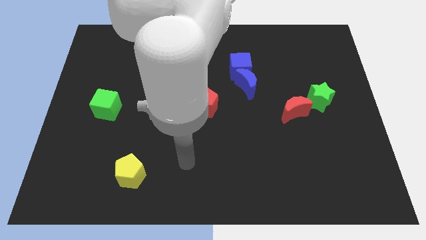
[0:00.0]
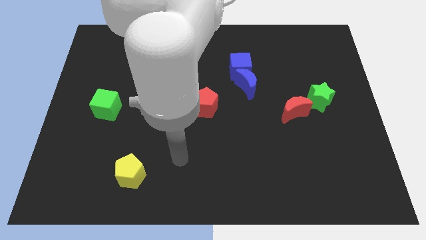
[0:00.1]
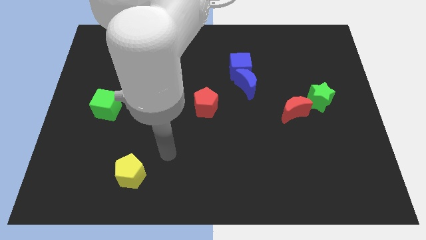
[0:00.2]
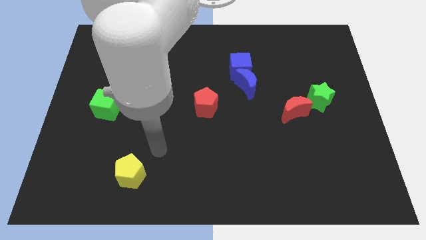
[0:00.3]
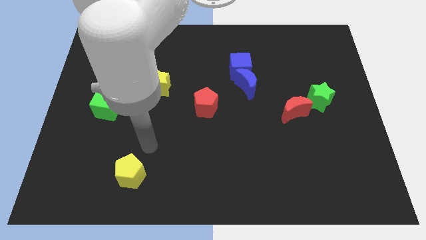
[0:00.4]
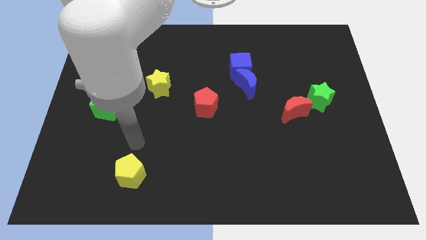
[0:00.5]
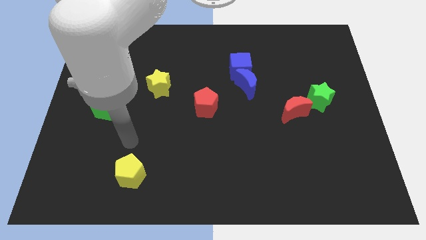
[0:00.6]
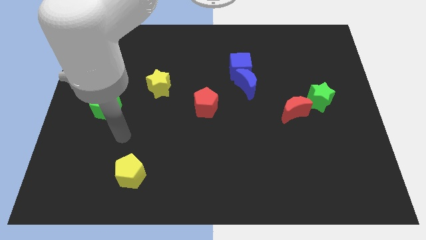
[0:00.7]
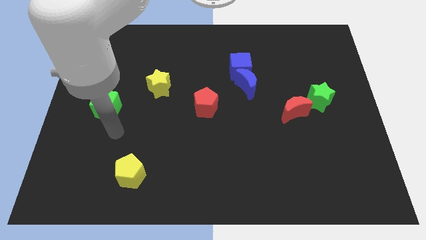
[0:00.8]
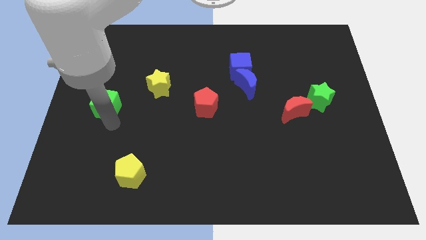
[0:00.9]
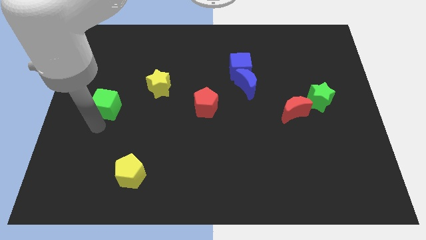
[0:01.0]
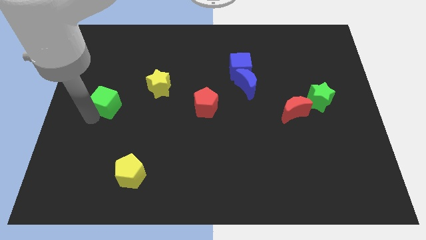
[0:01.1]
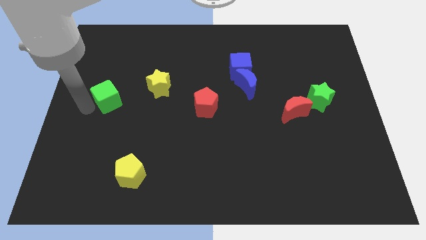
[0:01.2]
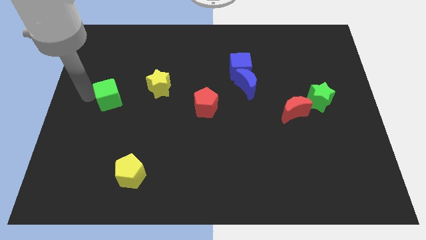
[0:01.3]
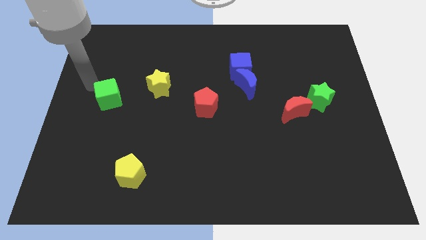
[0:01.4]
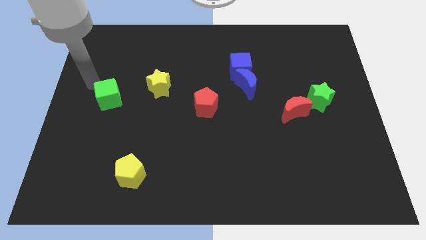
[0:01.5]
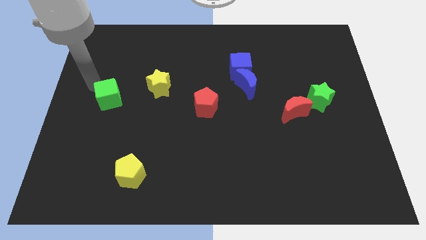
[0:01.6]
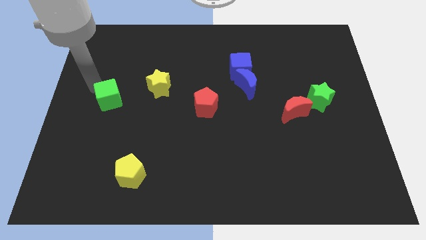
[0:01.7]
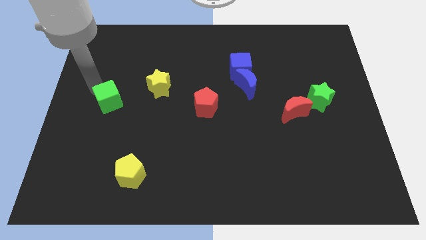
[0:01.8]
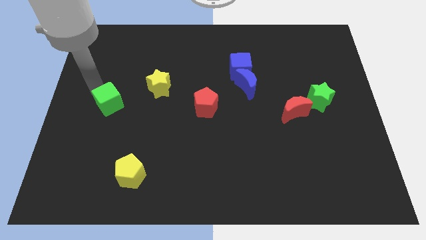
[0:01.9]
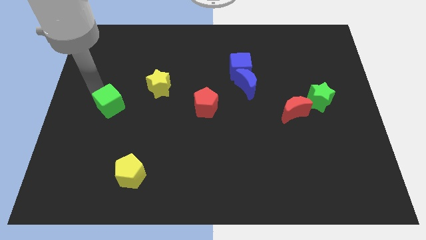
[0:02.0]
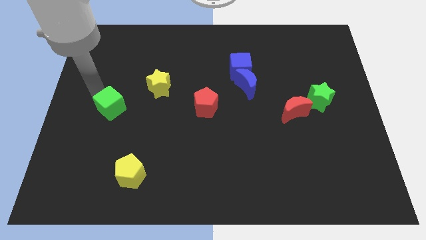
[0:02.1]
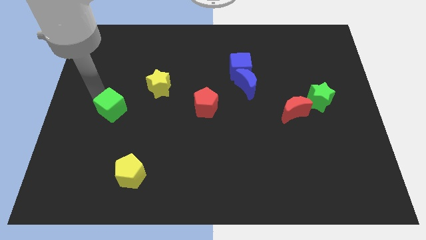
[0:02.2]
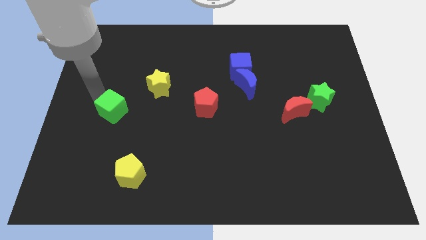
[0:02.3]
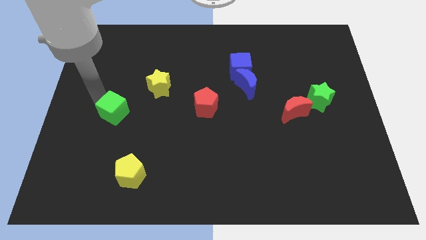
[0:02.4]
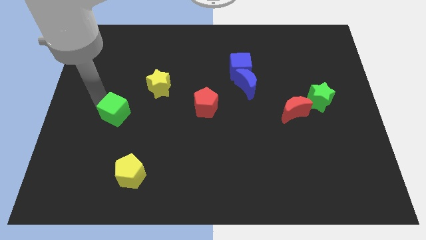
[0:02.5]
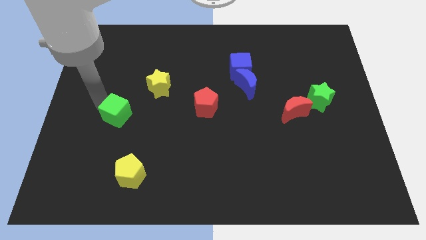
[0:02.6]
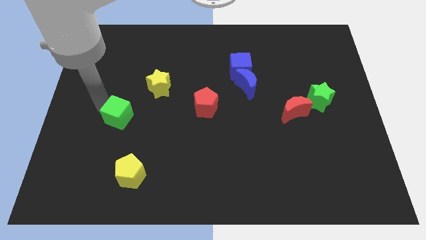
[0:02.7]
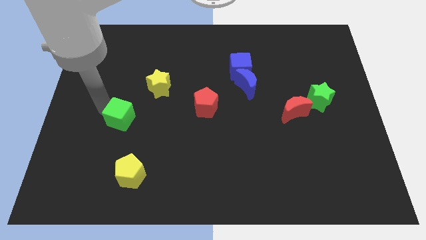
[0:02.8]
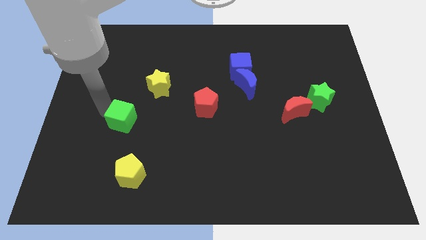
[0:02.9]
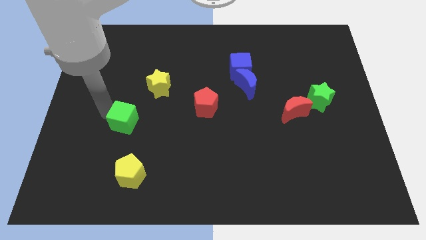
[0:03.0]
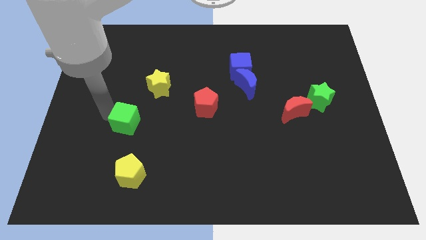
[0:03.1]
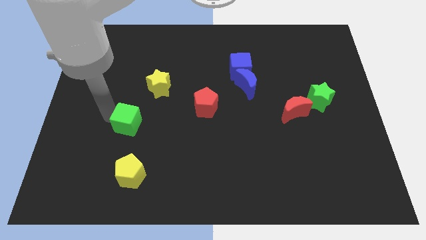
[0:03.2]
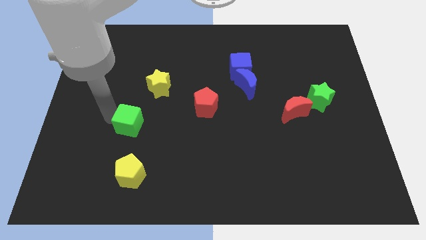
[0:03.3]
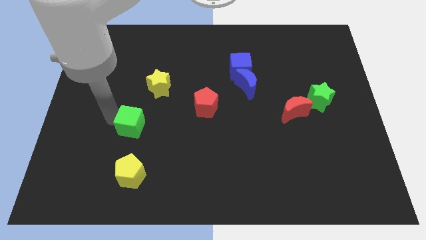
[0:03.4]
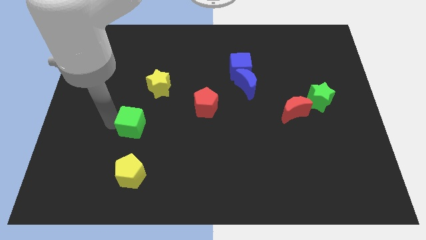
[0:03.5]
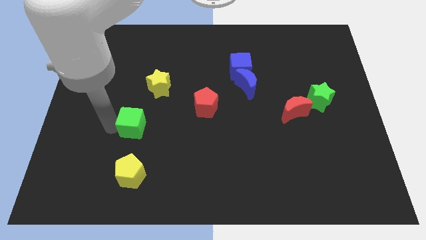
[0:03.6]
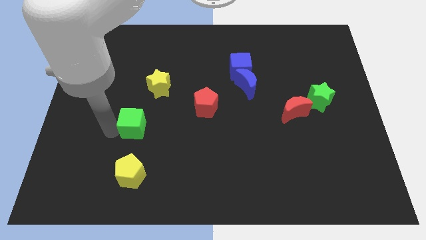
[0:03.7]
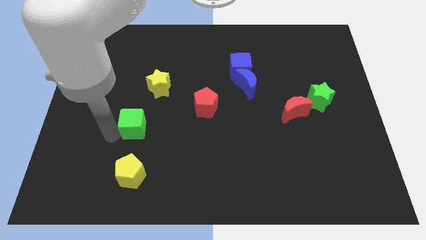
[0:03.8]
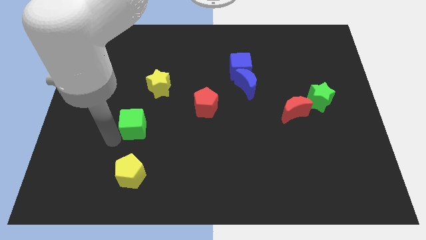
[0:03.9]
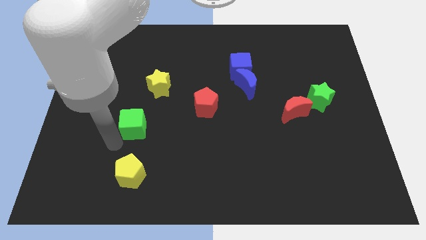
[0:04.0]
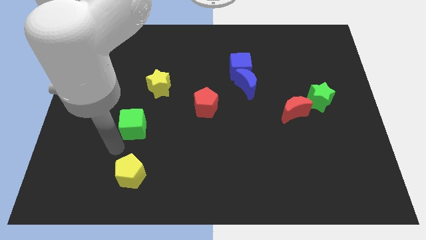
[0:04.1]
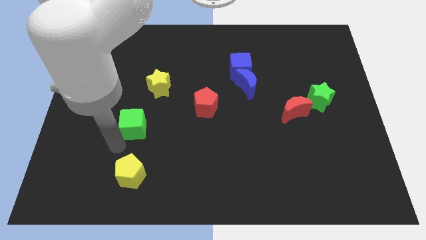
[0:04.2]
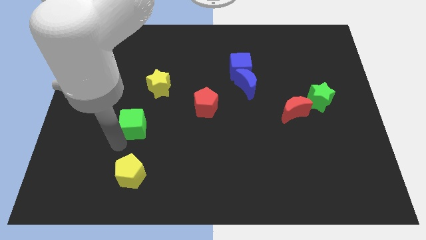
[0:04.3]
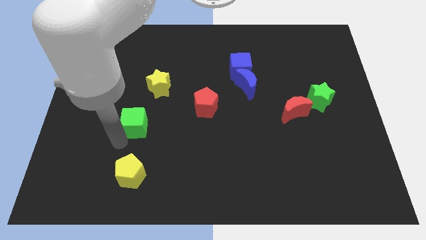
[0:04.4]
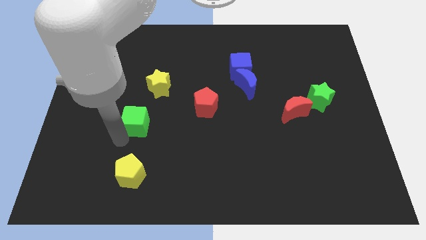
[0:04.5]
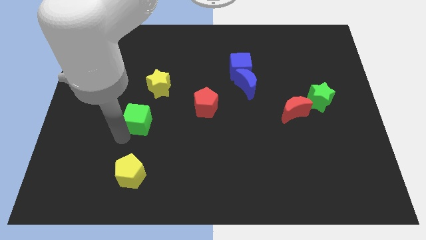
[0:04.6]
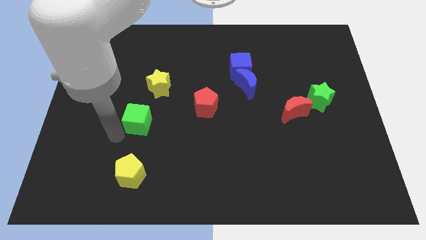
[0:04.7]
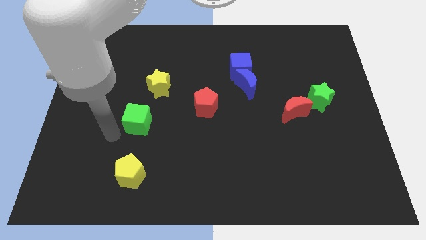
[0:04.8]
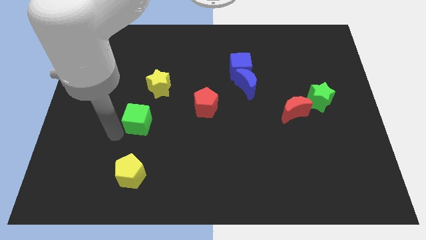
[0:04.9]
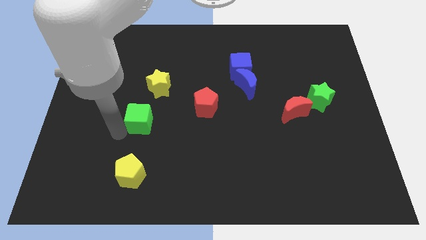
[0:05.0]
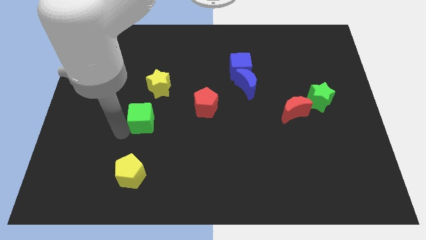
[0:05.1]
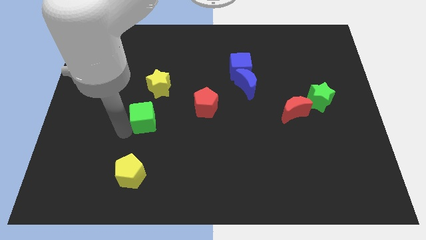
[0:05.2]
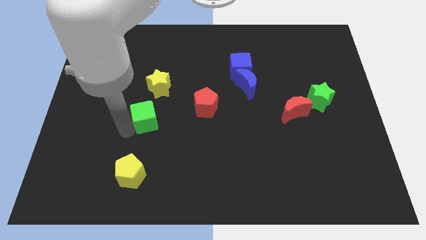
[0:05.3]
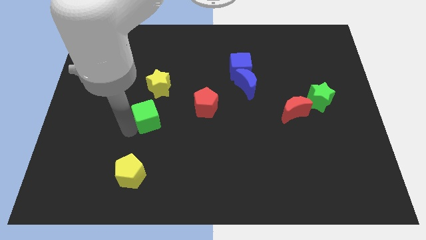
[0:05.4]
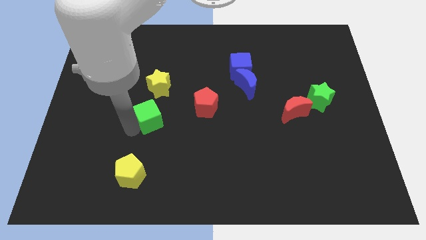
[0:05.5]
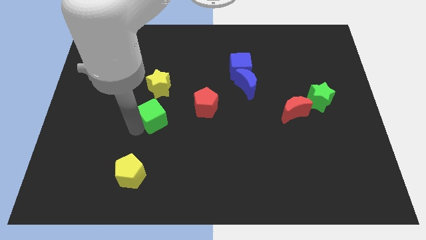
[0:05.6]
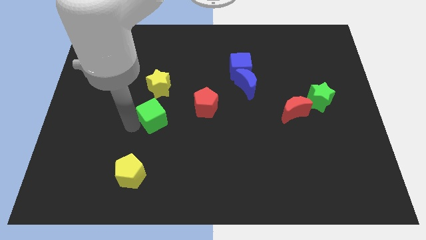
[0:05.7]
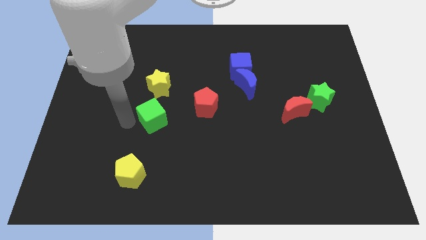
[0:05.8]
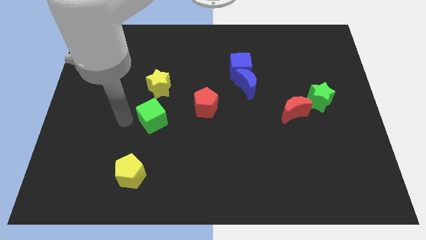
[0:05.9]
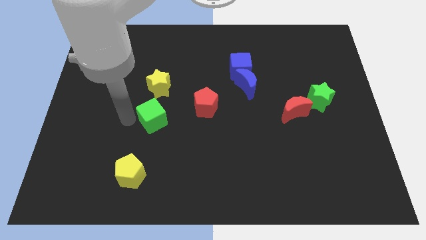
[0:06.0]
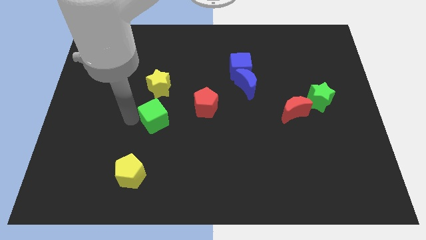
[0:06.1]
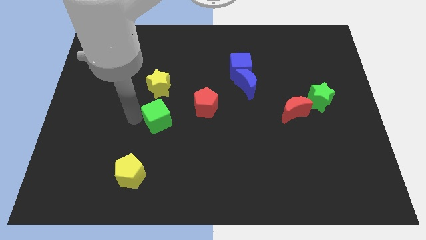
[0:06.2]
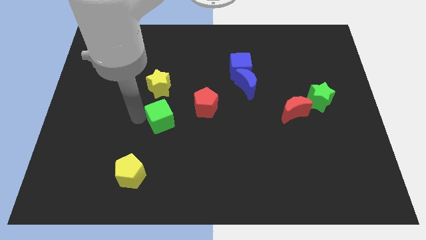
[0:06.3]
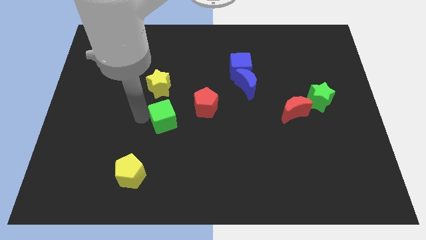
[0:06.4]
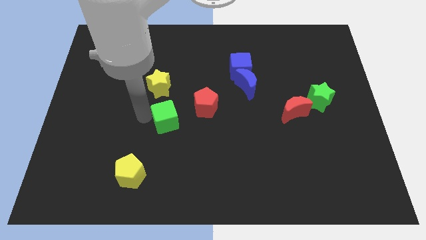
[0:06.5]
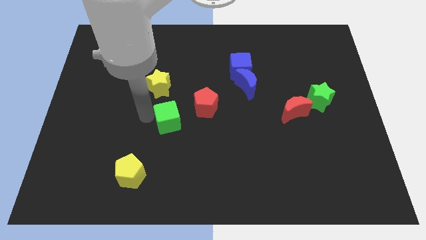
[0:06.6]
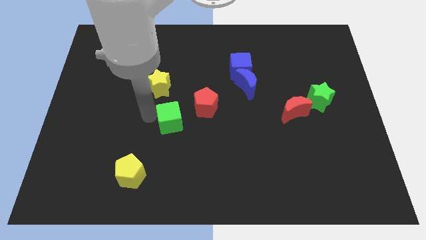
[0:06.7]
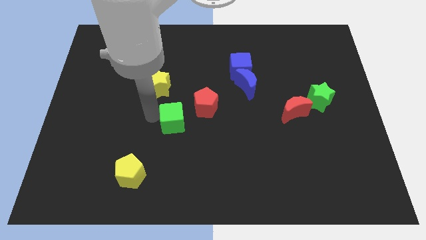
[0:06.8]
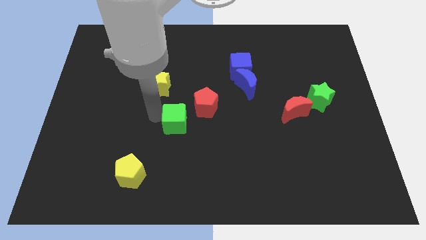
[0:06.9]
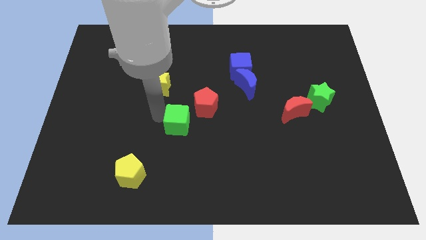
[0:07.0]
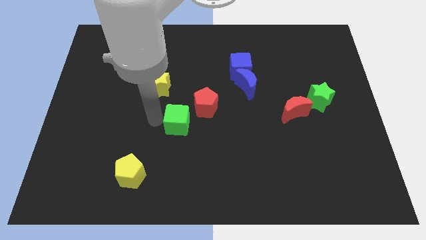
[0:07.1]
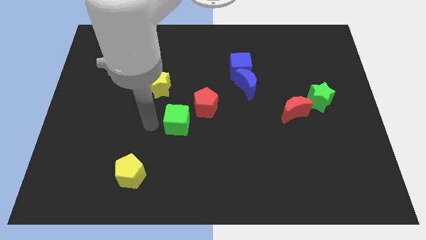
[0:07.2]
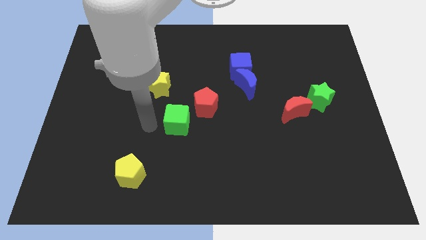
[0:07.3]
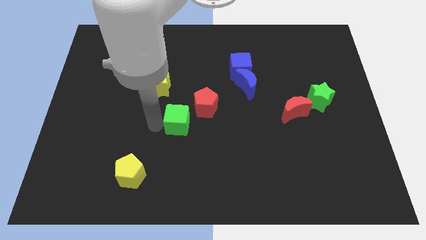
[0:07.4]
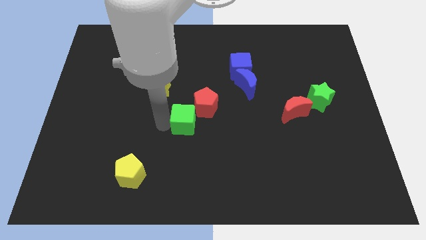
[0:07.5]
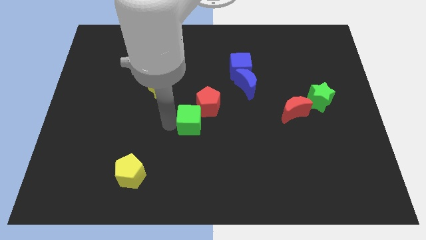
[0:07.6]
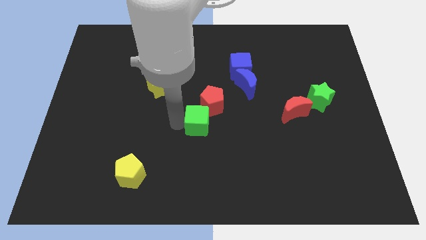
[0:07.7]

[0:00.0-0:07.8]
push the green cube right
